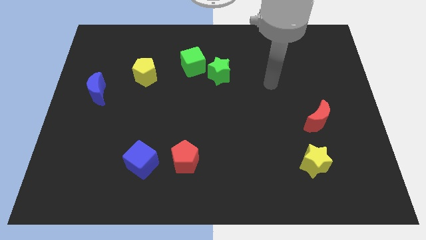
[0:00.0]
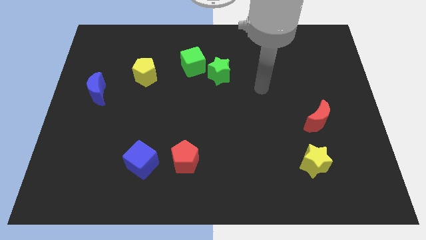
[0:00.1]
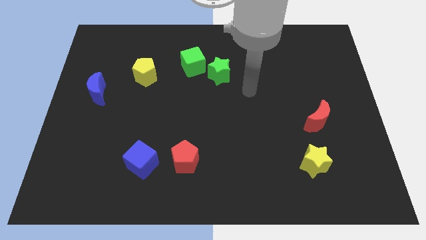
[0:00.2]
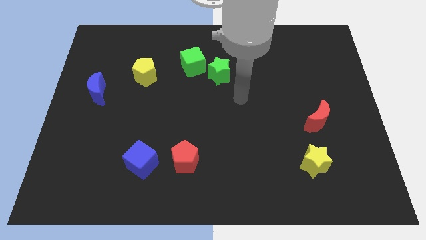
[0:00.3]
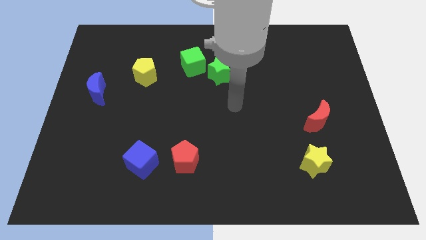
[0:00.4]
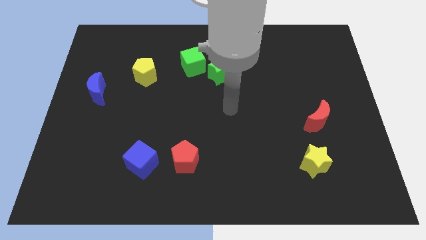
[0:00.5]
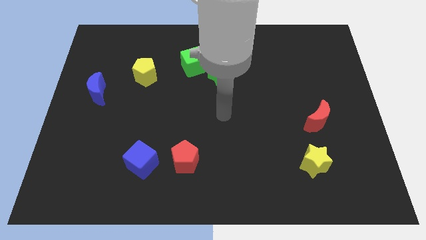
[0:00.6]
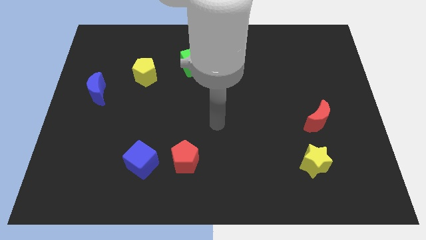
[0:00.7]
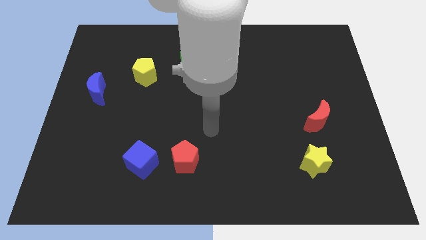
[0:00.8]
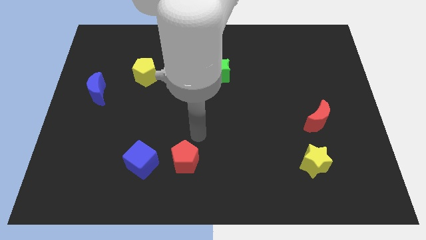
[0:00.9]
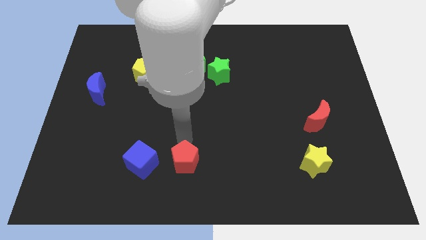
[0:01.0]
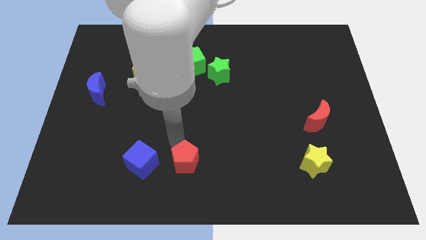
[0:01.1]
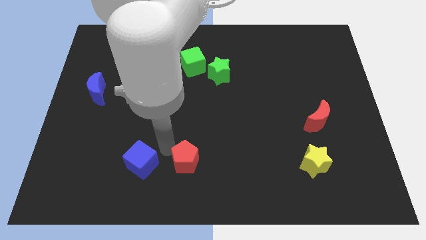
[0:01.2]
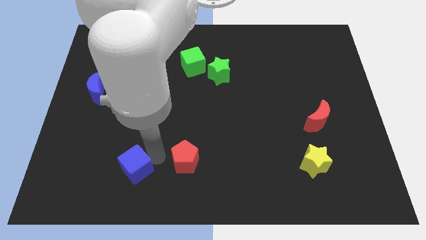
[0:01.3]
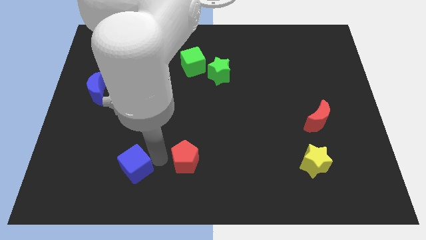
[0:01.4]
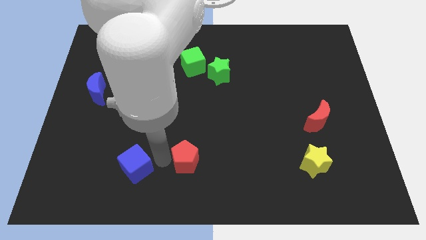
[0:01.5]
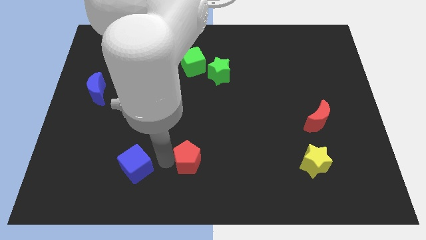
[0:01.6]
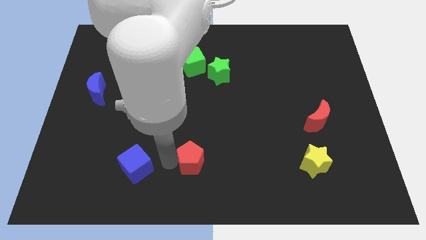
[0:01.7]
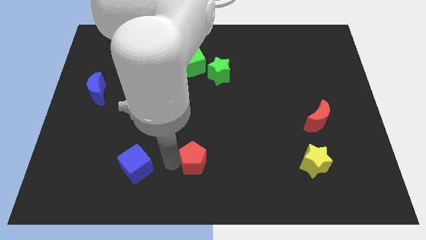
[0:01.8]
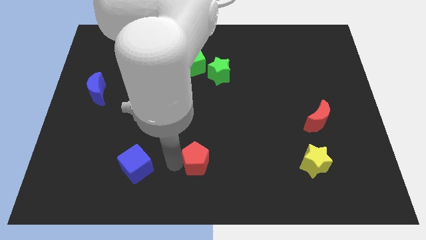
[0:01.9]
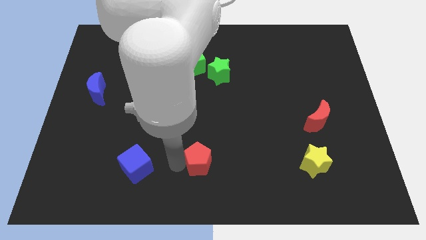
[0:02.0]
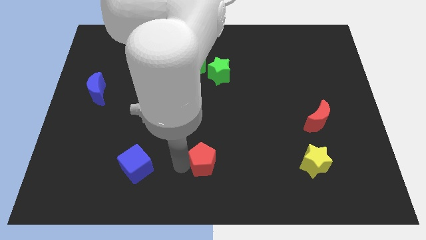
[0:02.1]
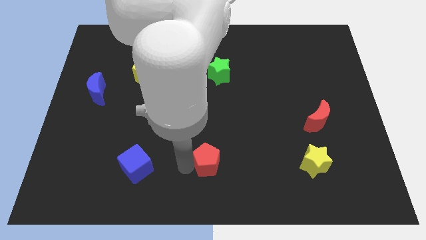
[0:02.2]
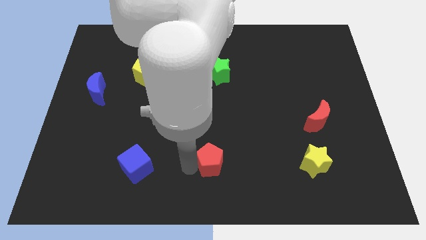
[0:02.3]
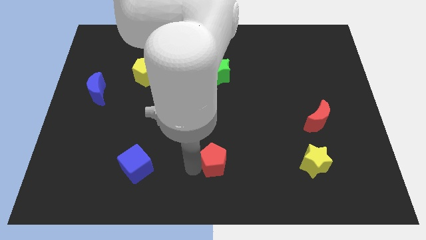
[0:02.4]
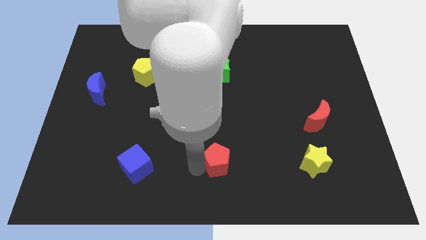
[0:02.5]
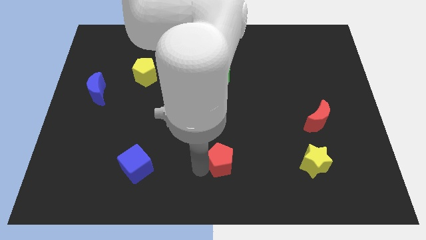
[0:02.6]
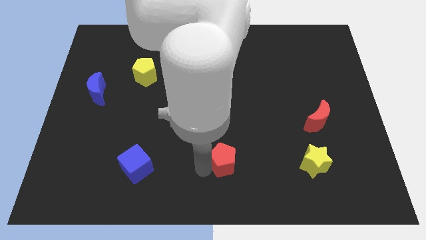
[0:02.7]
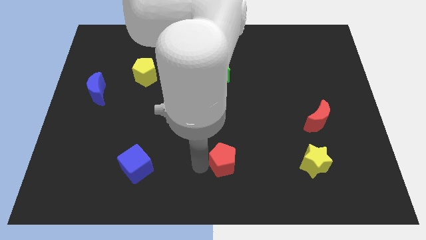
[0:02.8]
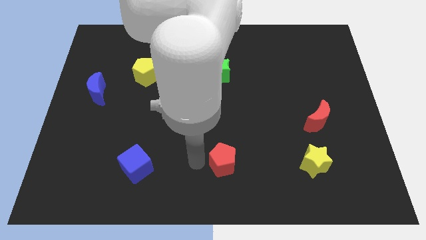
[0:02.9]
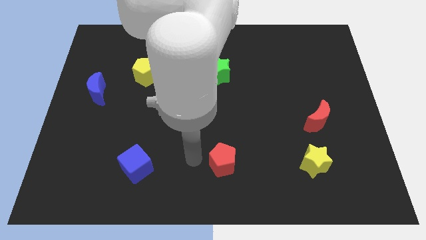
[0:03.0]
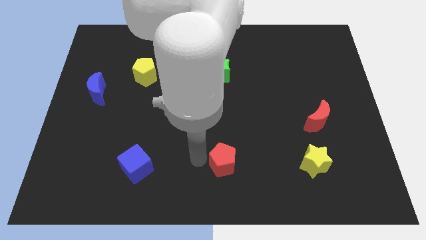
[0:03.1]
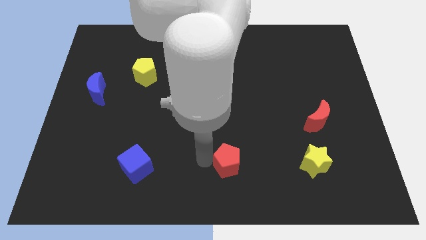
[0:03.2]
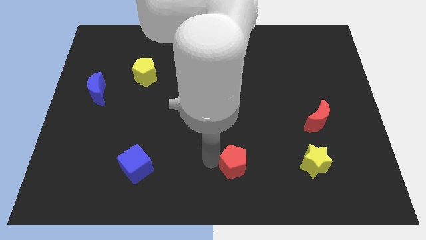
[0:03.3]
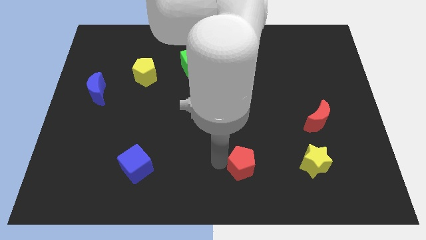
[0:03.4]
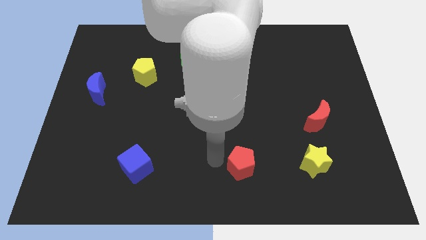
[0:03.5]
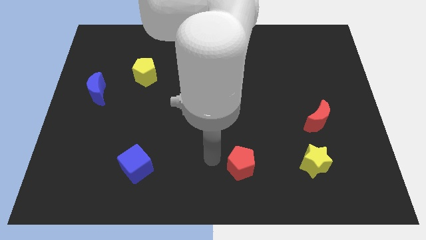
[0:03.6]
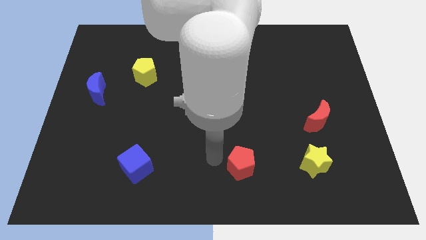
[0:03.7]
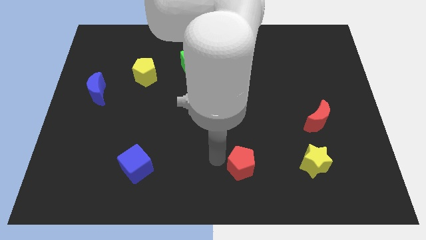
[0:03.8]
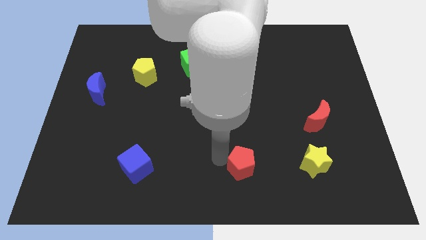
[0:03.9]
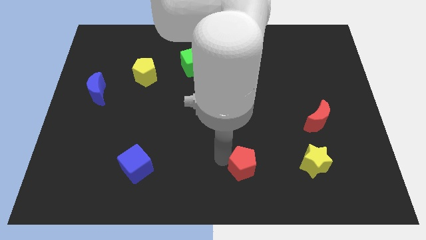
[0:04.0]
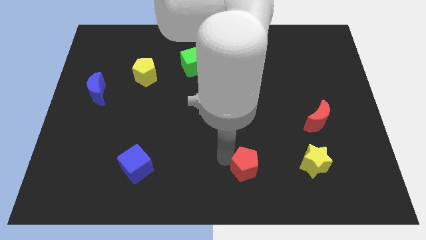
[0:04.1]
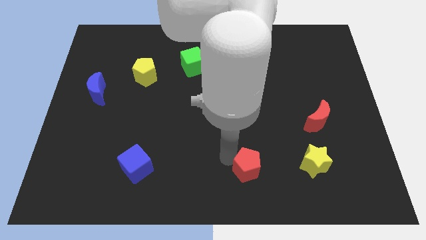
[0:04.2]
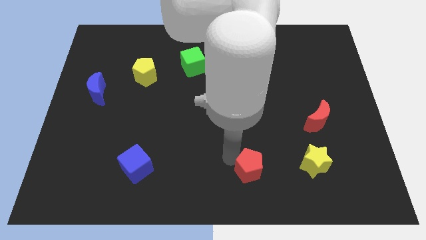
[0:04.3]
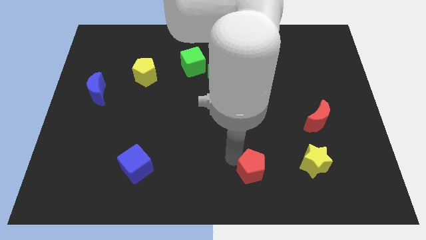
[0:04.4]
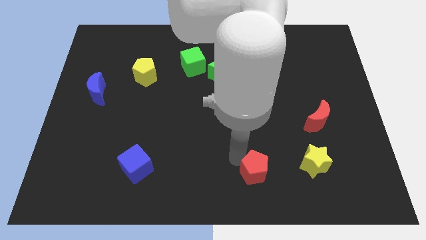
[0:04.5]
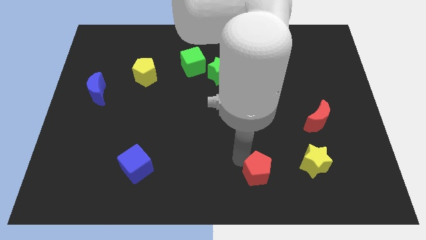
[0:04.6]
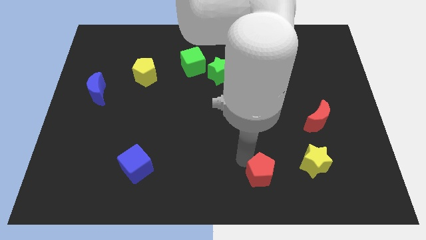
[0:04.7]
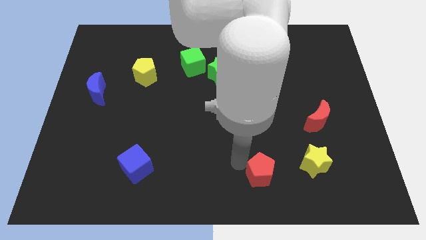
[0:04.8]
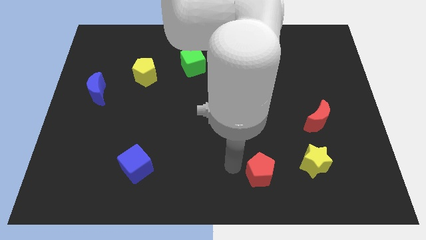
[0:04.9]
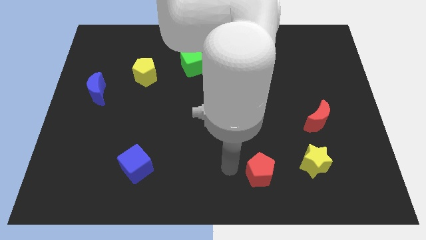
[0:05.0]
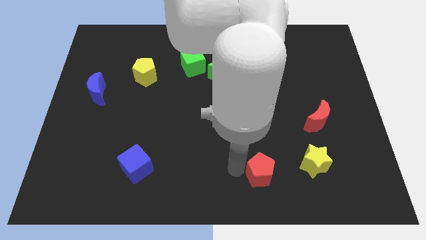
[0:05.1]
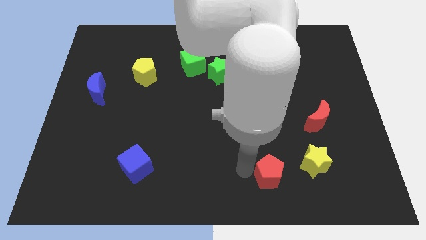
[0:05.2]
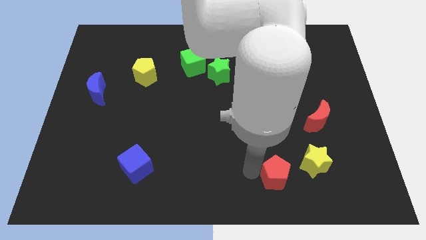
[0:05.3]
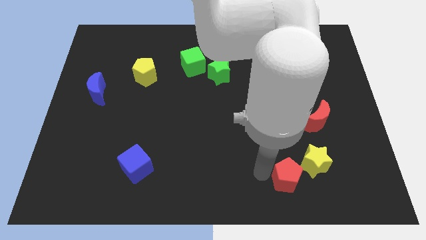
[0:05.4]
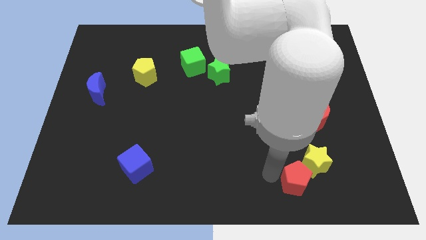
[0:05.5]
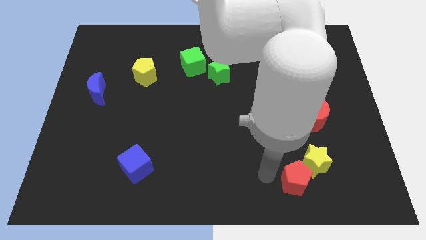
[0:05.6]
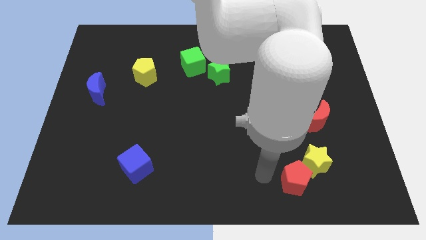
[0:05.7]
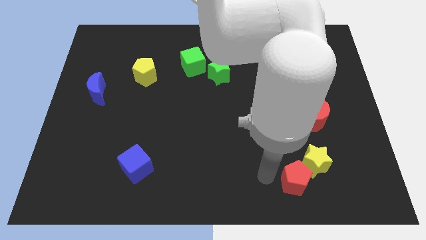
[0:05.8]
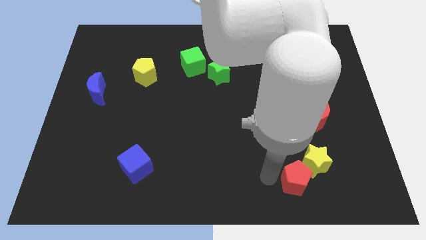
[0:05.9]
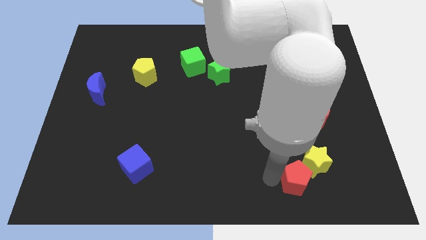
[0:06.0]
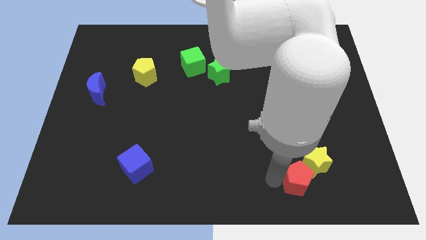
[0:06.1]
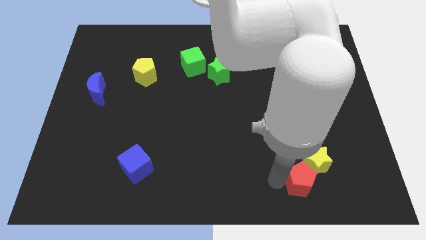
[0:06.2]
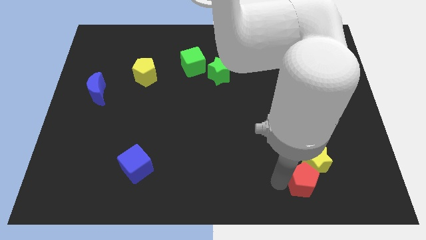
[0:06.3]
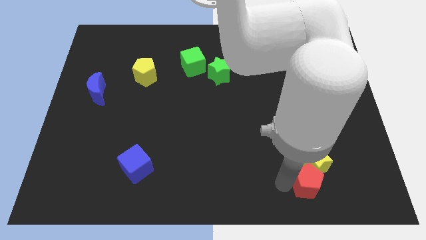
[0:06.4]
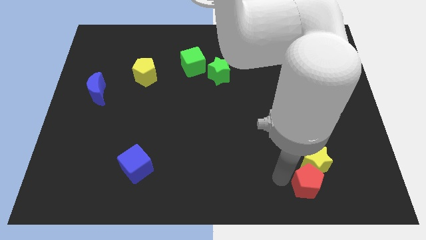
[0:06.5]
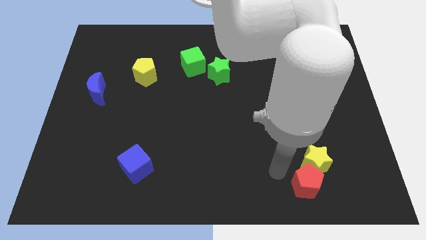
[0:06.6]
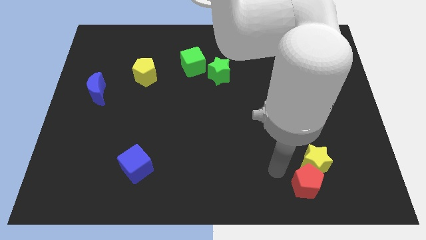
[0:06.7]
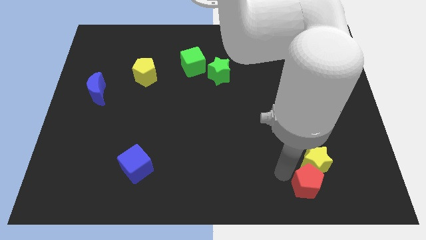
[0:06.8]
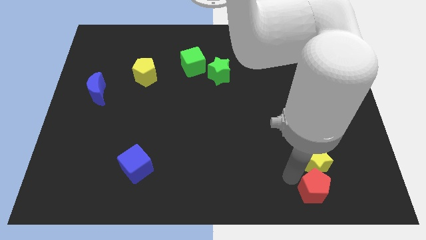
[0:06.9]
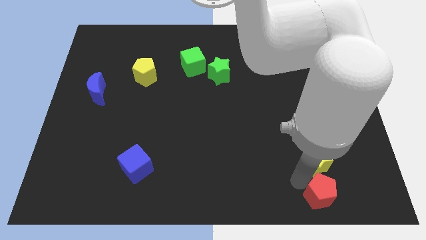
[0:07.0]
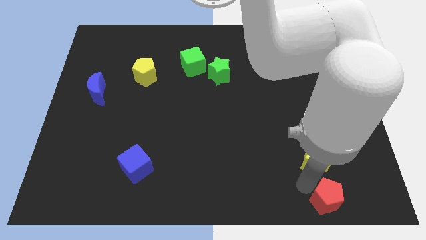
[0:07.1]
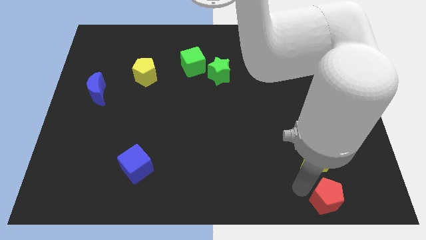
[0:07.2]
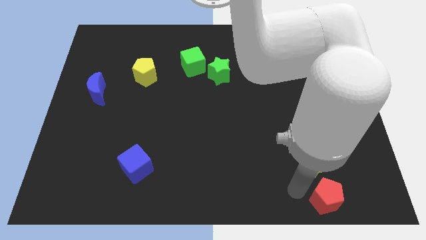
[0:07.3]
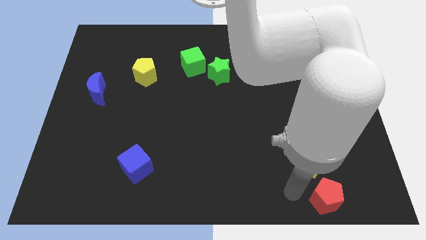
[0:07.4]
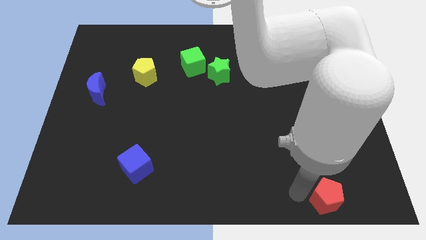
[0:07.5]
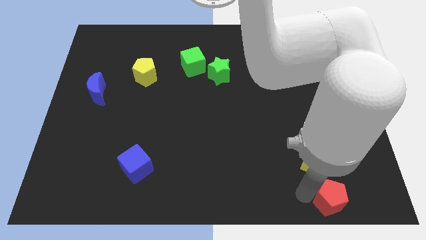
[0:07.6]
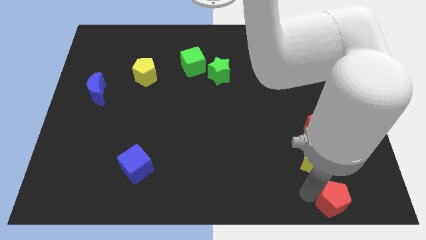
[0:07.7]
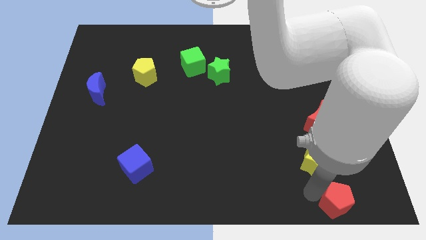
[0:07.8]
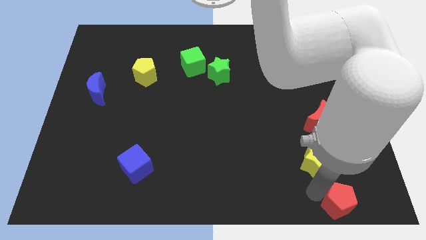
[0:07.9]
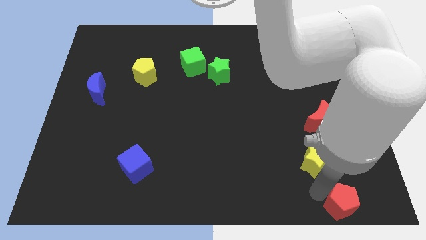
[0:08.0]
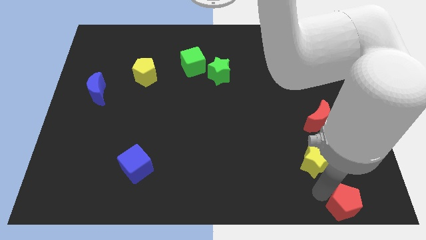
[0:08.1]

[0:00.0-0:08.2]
slide the red pentagon to the bottom right of the board

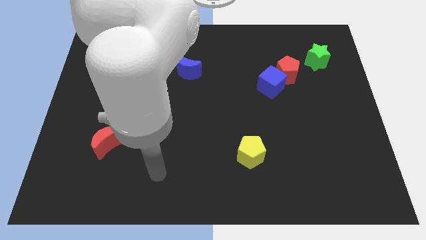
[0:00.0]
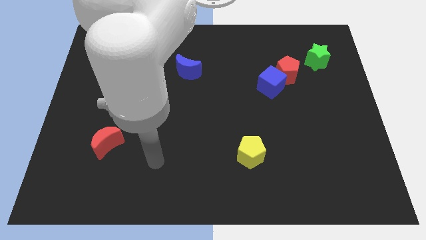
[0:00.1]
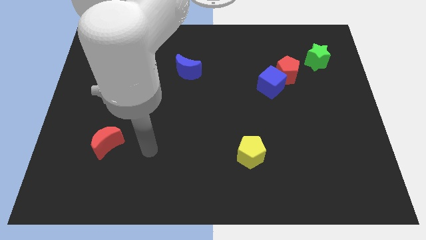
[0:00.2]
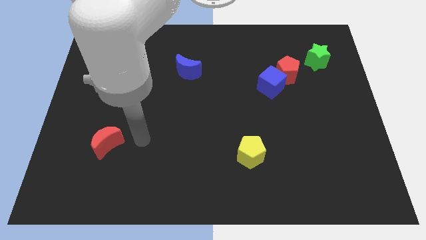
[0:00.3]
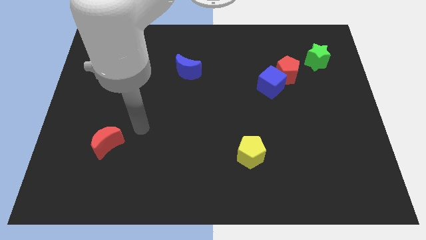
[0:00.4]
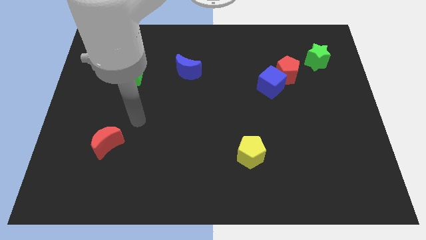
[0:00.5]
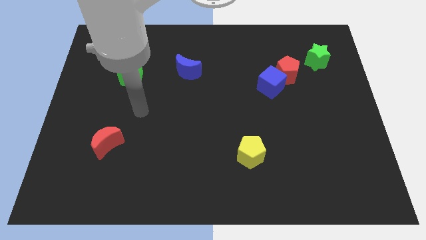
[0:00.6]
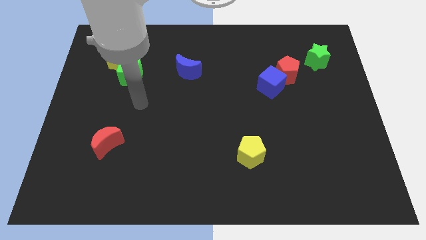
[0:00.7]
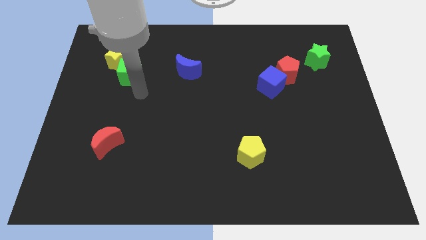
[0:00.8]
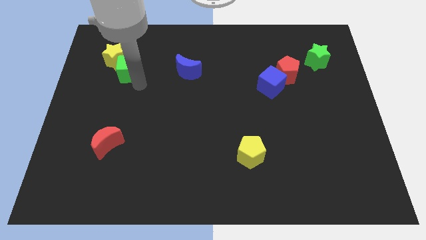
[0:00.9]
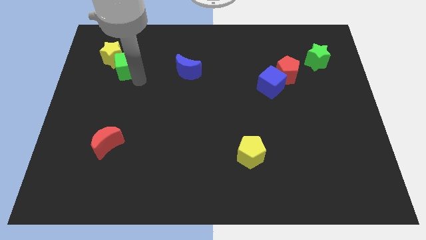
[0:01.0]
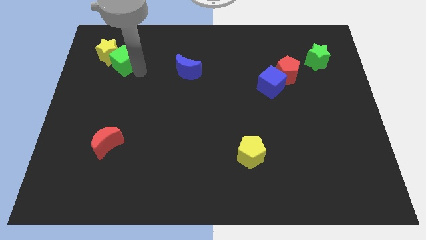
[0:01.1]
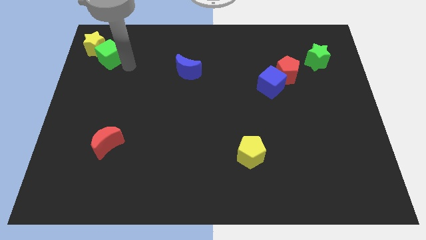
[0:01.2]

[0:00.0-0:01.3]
push the yellow star to the top left
